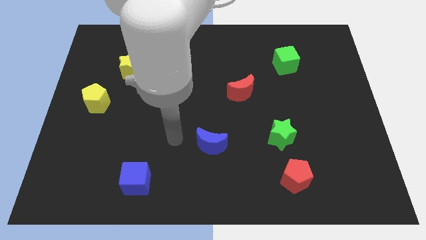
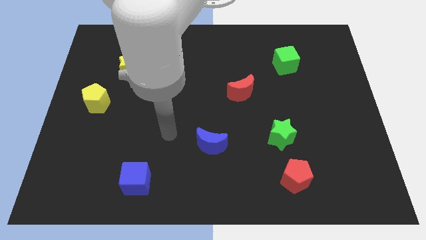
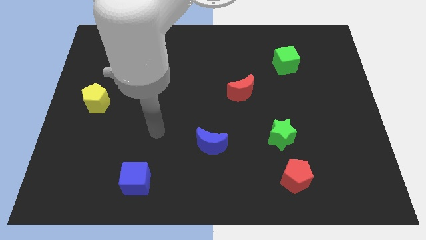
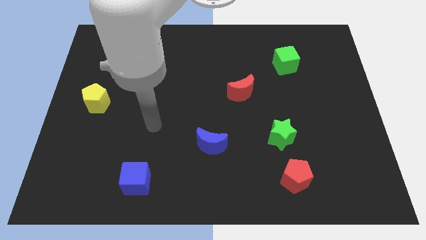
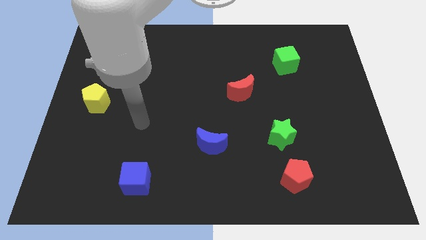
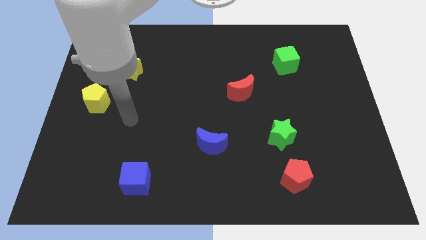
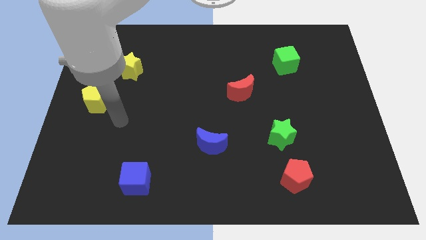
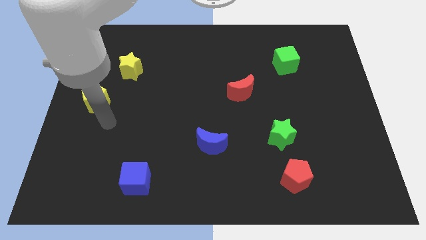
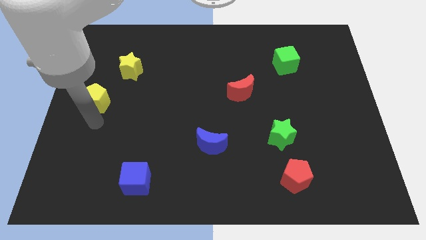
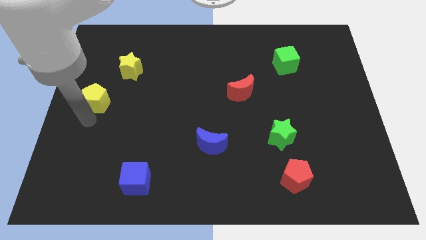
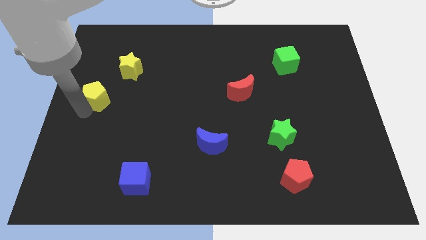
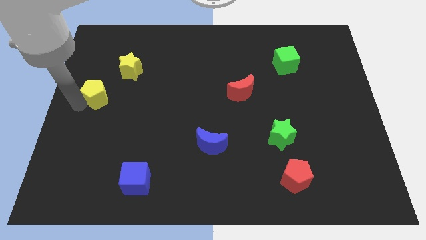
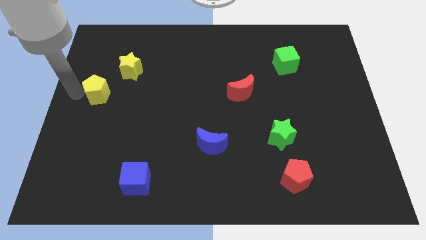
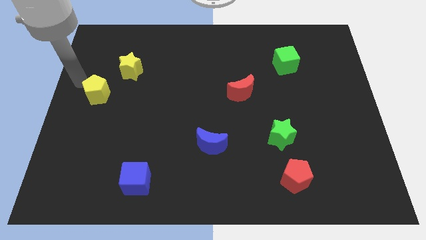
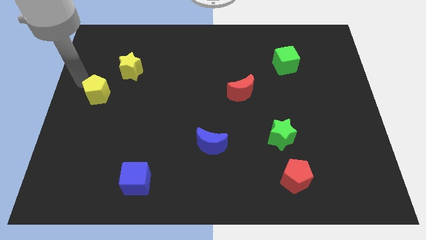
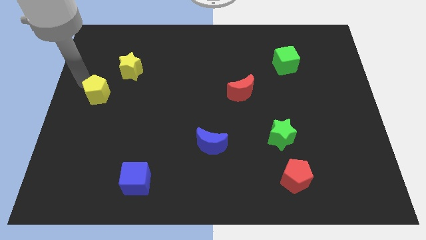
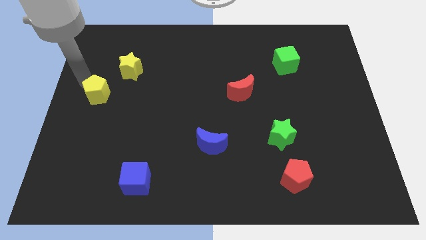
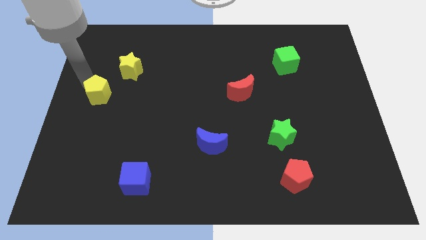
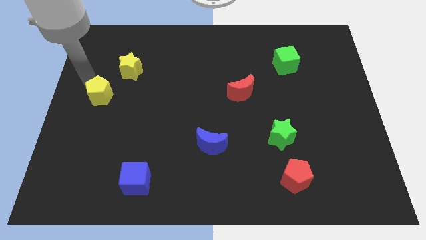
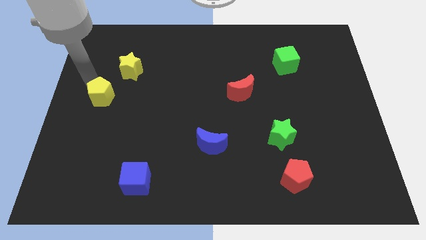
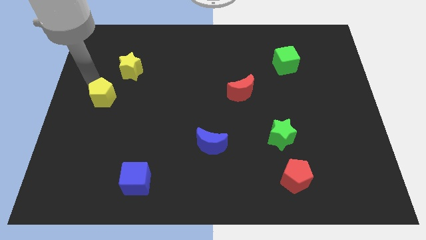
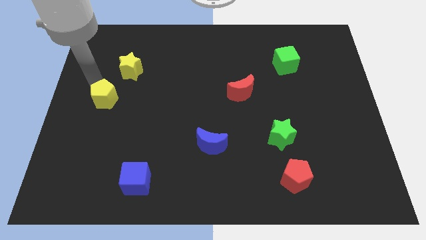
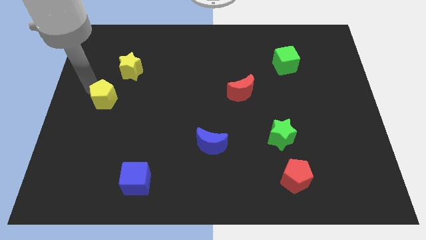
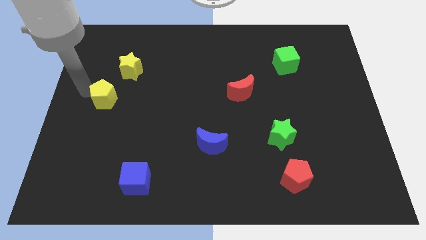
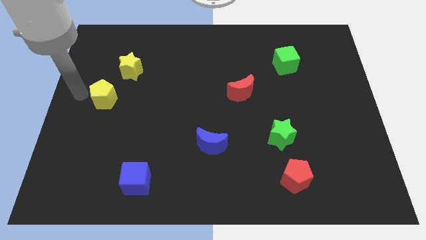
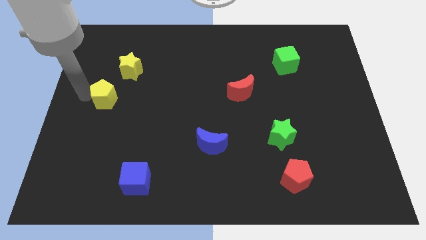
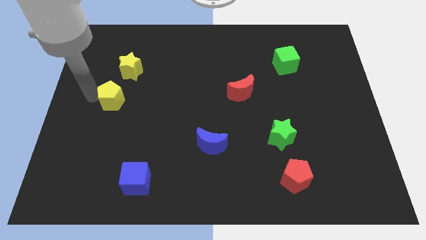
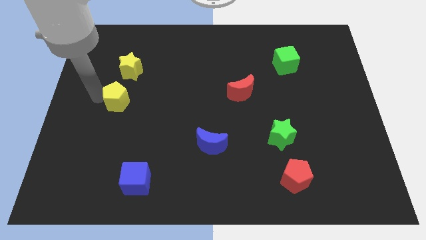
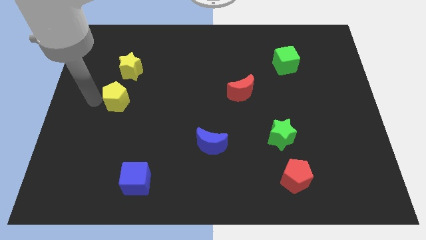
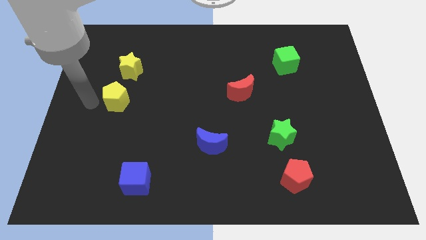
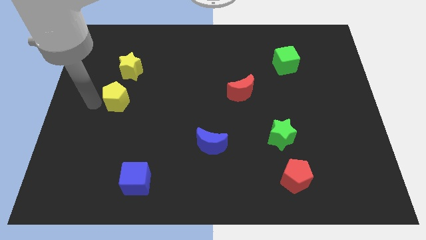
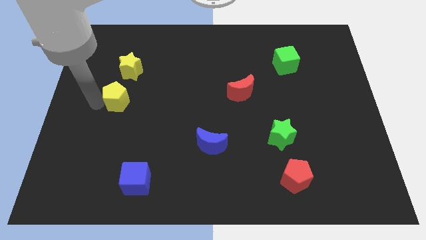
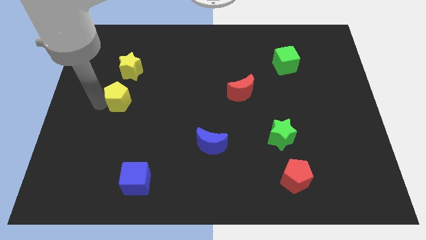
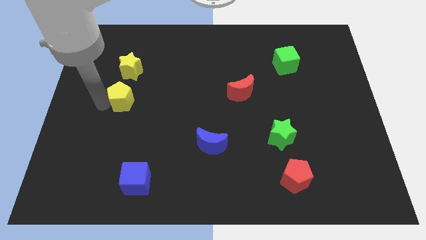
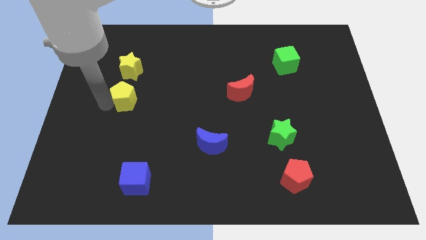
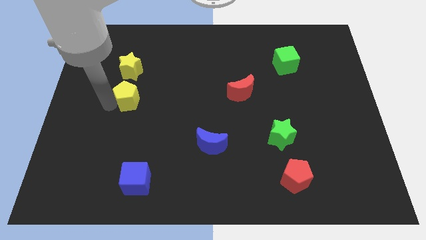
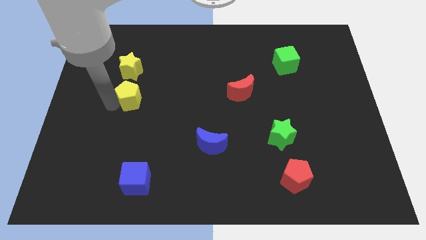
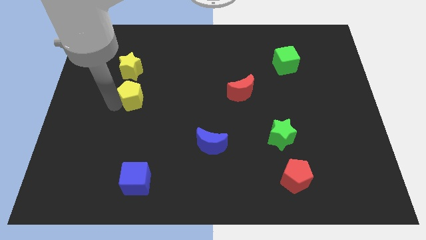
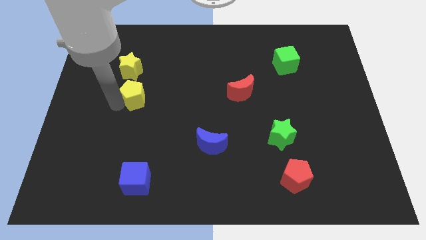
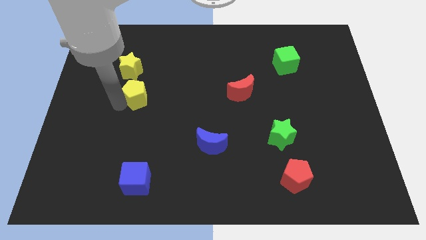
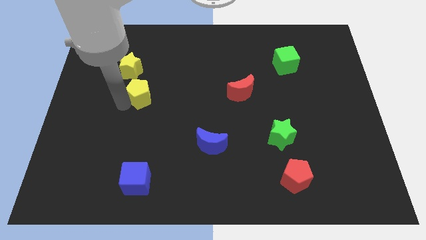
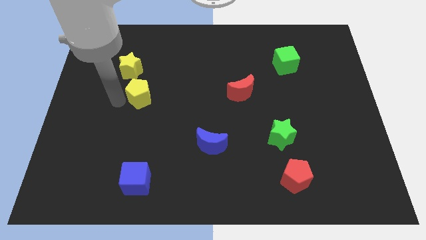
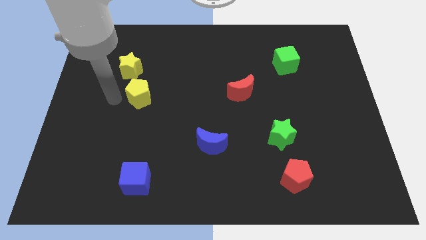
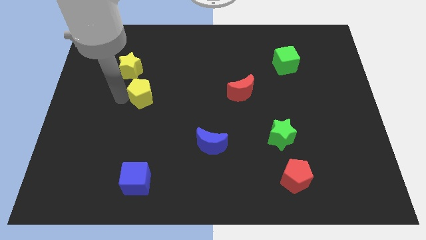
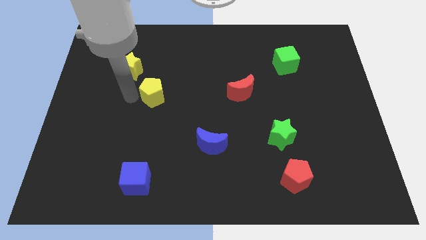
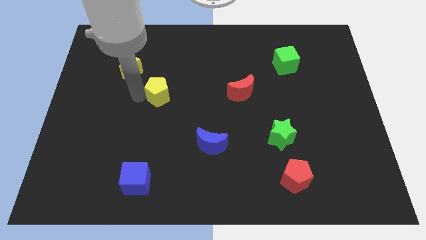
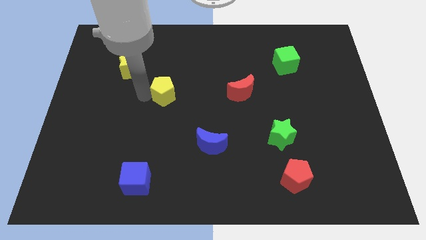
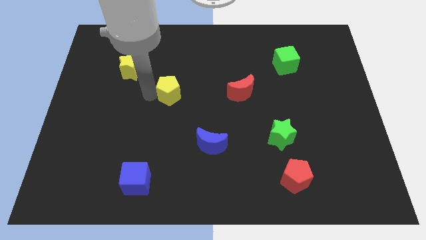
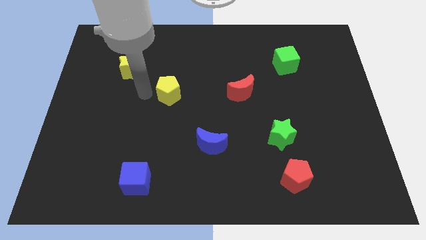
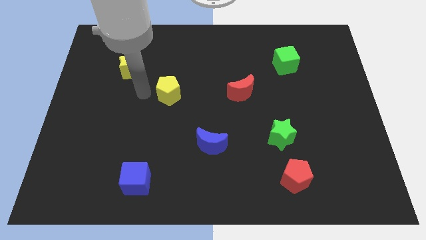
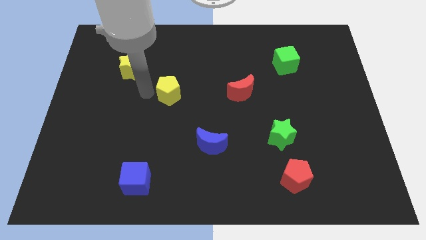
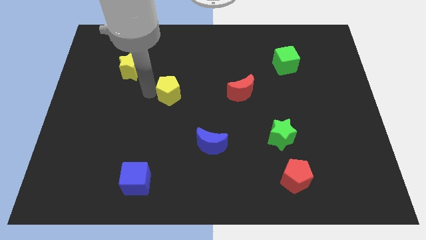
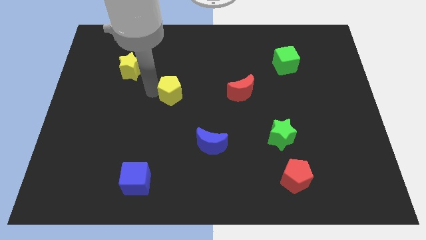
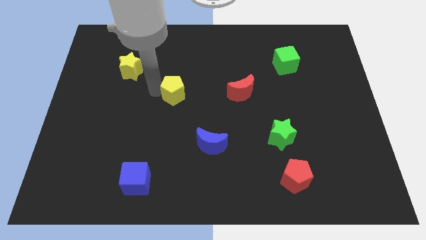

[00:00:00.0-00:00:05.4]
move the yellow pentagon to the left side of the red moon

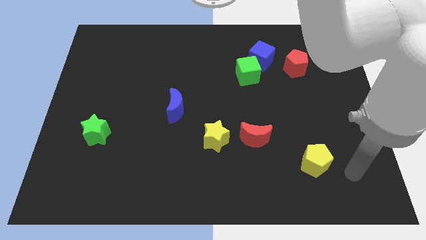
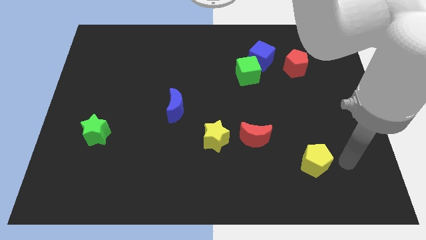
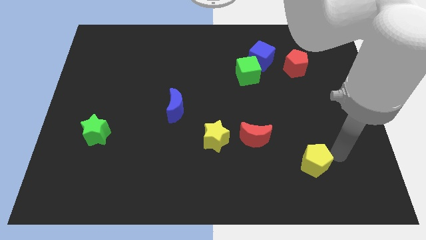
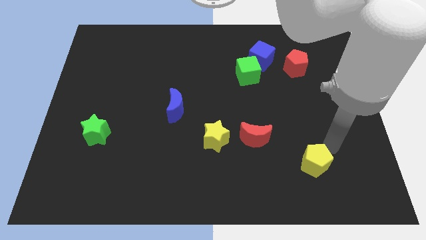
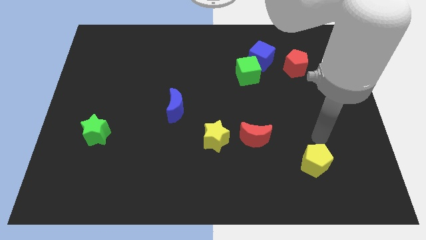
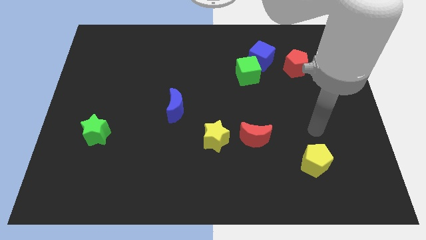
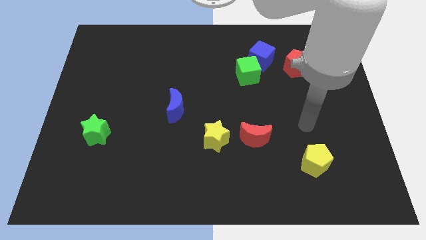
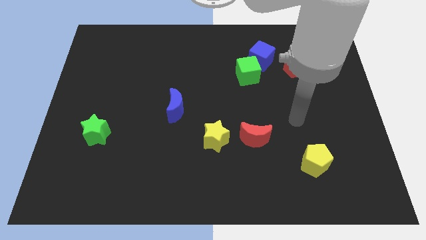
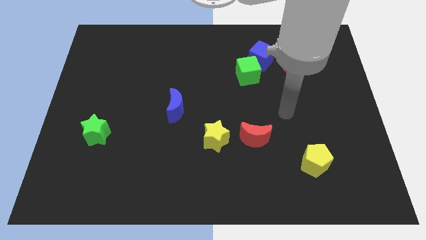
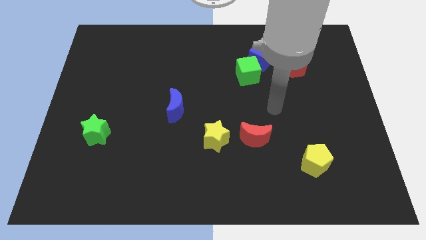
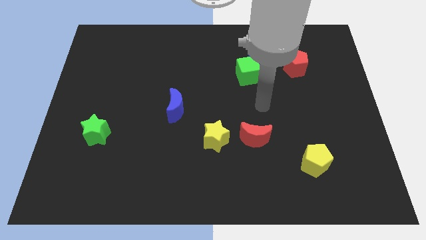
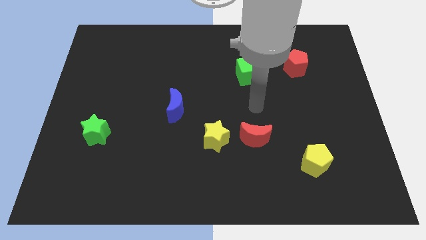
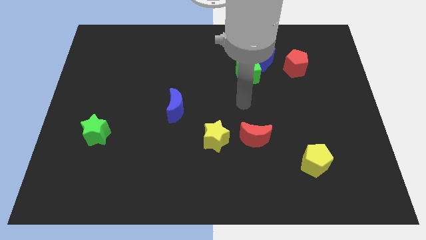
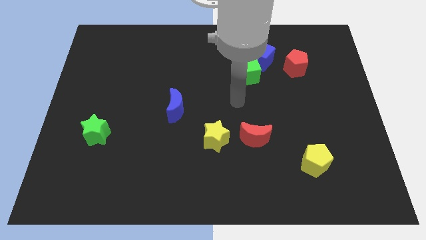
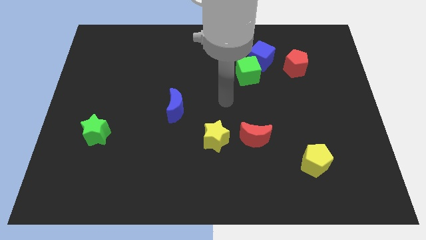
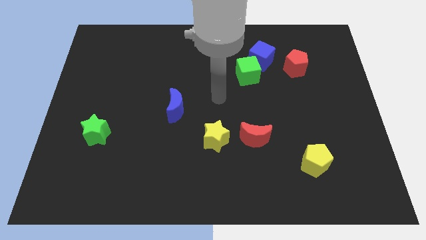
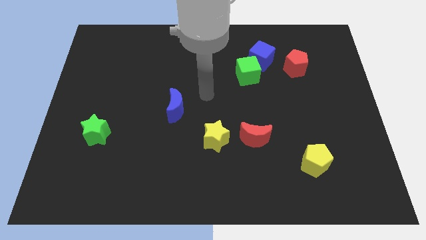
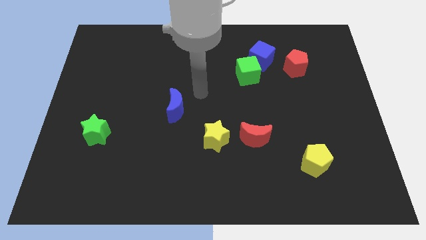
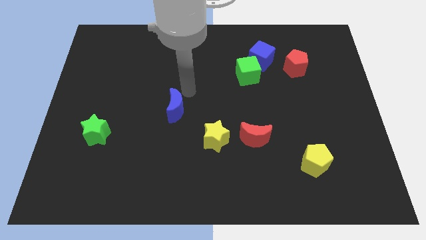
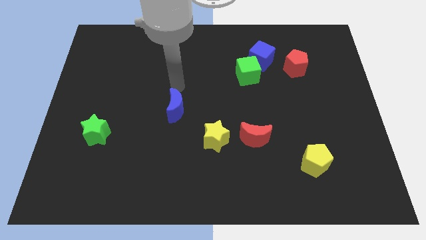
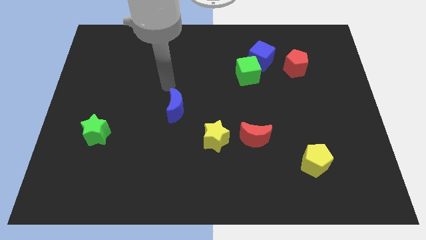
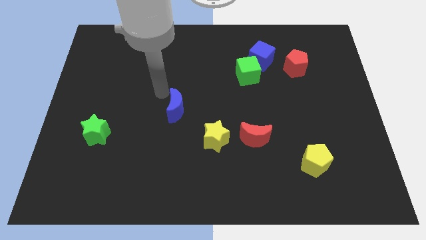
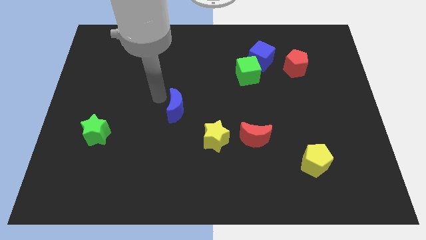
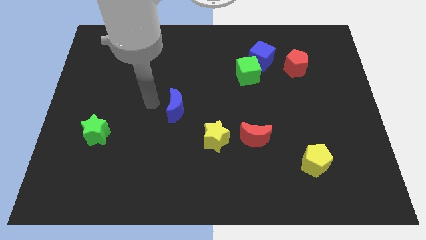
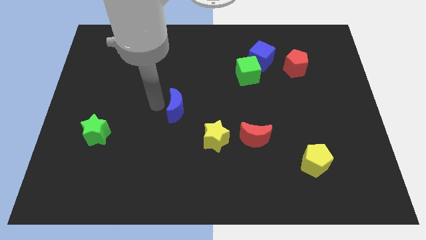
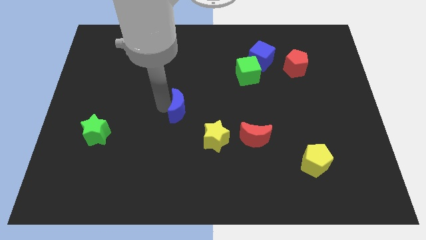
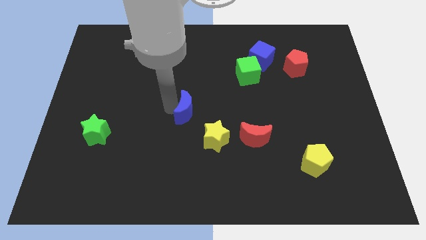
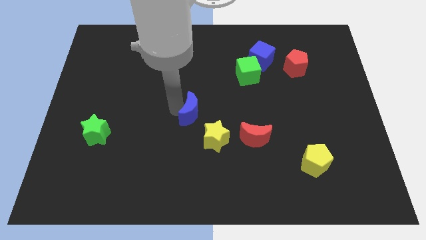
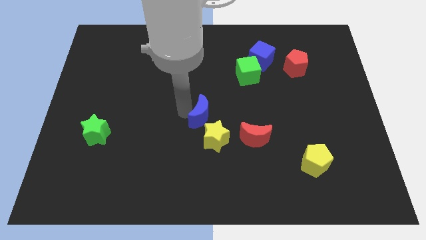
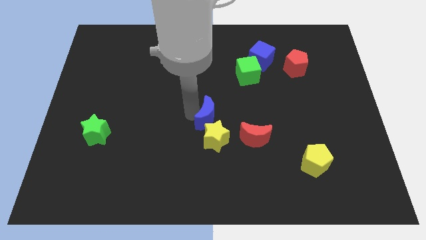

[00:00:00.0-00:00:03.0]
push the blue moon to the top left side of the red moon
